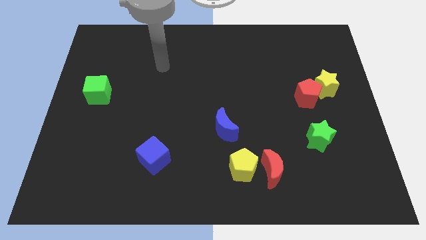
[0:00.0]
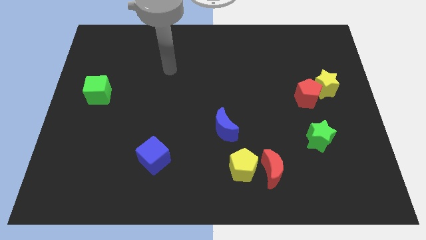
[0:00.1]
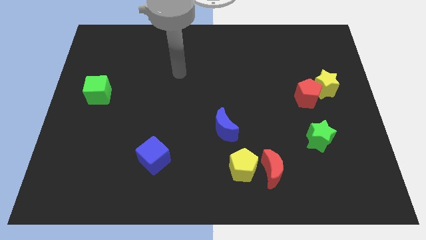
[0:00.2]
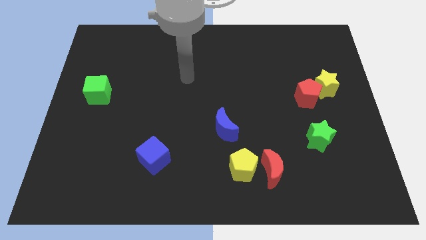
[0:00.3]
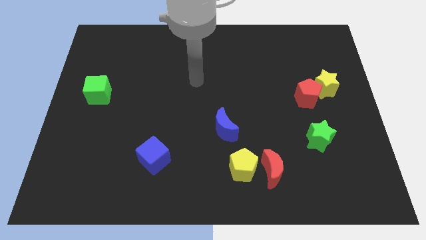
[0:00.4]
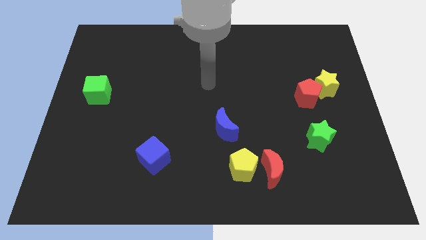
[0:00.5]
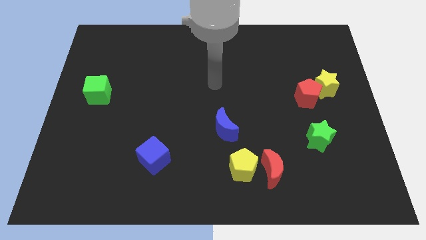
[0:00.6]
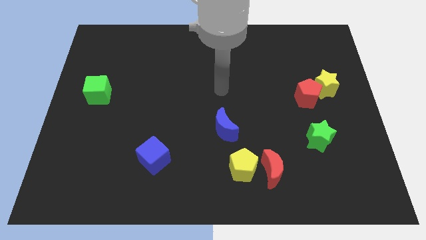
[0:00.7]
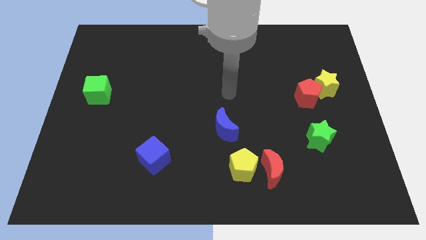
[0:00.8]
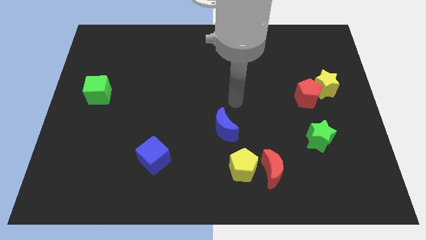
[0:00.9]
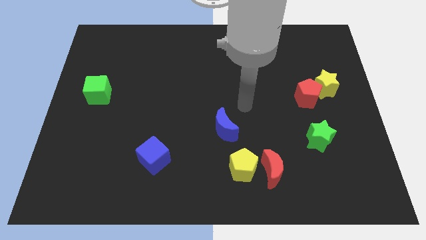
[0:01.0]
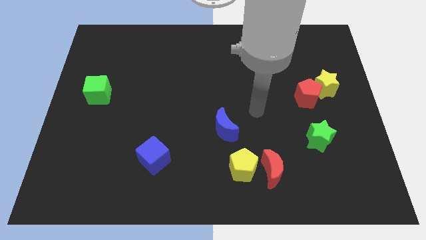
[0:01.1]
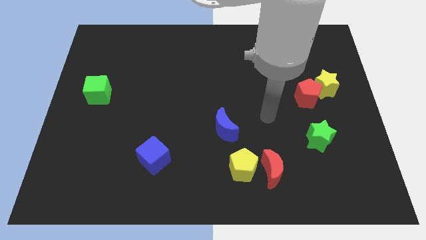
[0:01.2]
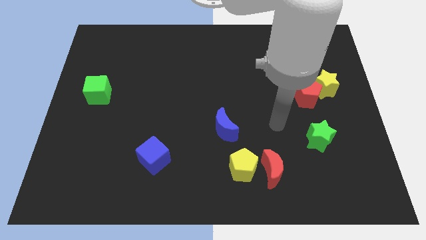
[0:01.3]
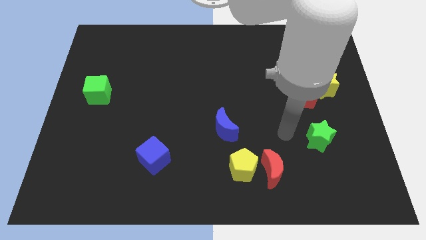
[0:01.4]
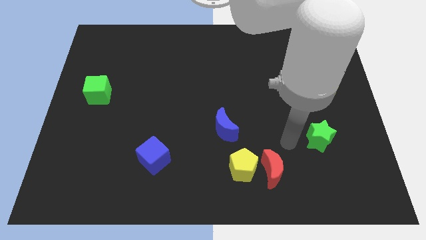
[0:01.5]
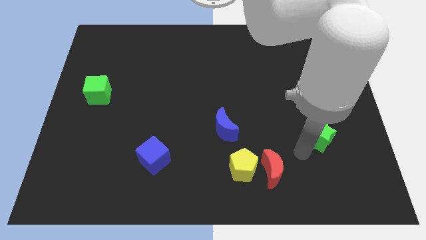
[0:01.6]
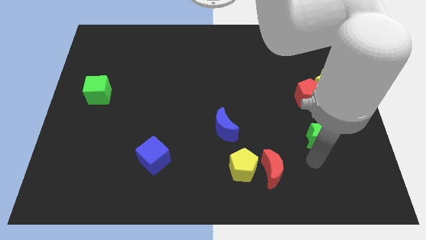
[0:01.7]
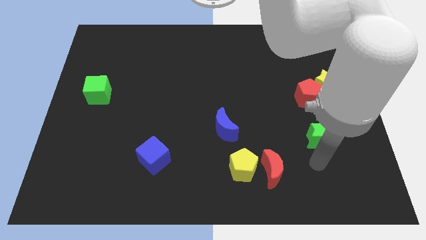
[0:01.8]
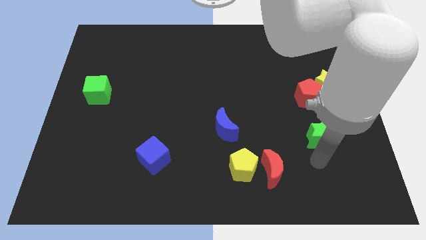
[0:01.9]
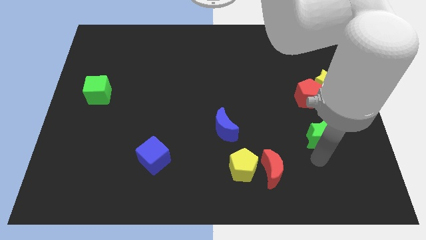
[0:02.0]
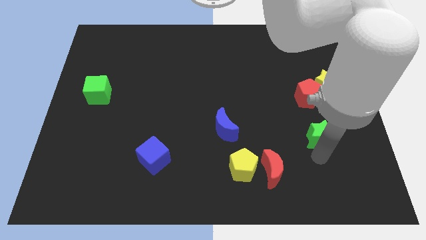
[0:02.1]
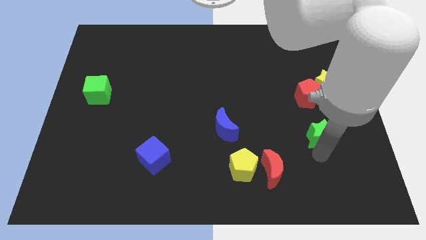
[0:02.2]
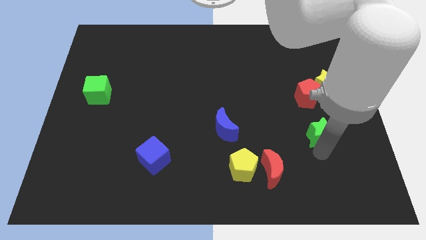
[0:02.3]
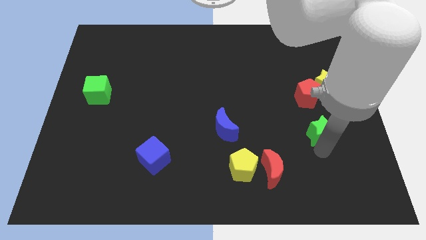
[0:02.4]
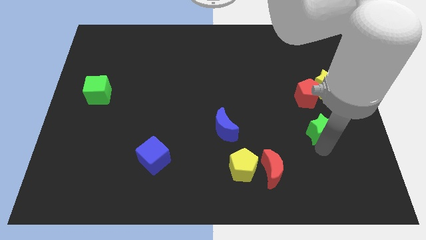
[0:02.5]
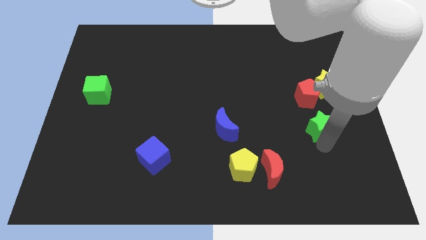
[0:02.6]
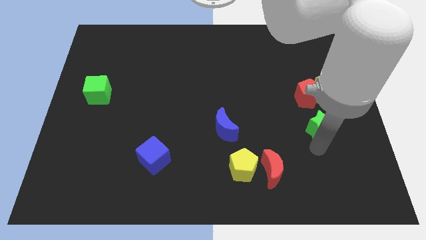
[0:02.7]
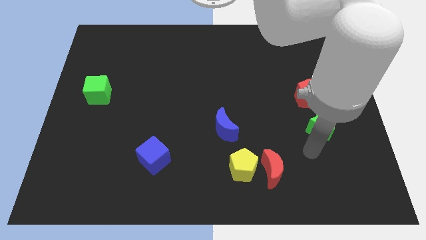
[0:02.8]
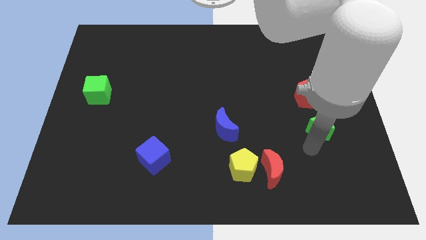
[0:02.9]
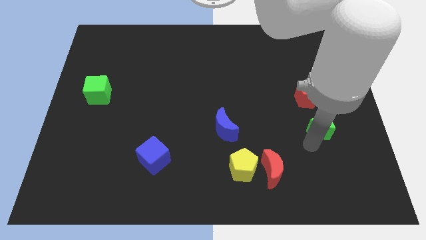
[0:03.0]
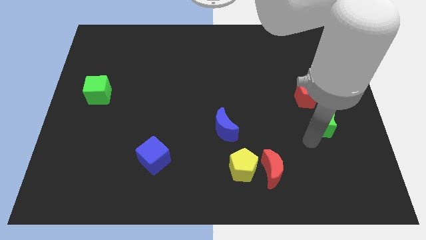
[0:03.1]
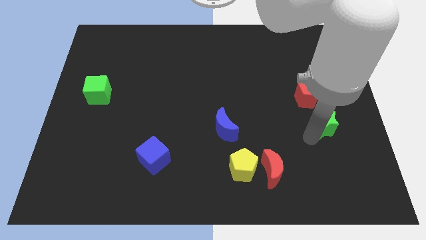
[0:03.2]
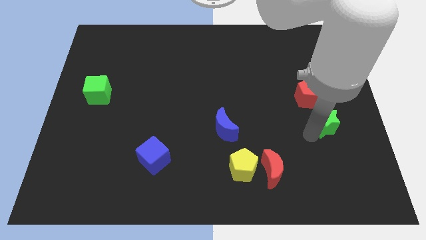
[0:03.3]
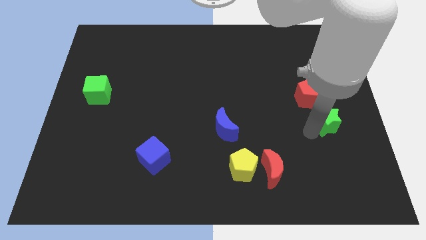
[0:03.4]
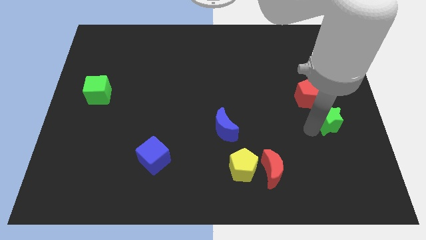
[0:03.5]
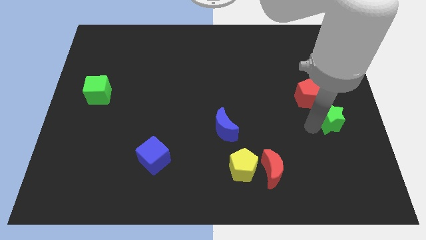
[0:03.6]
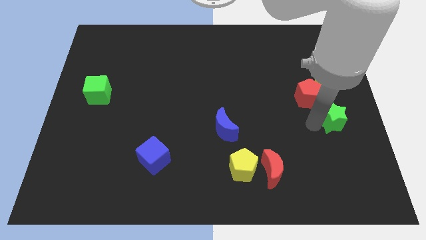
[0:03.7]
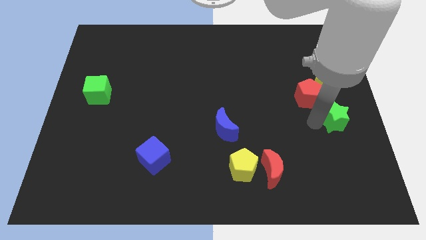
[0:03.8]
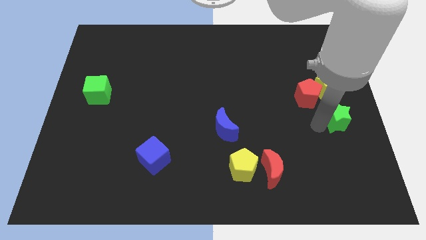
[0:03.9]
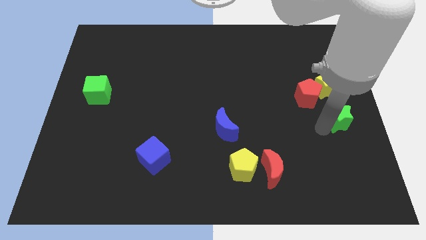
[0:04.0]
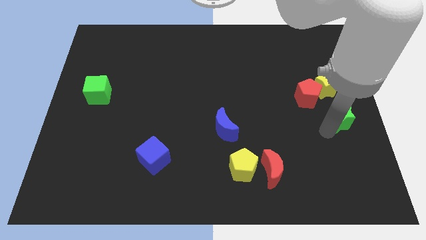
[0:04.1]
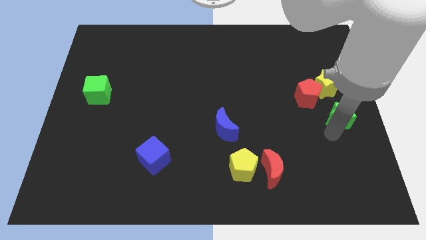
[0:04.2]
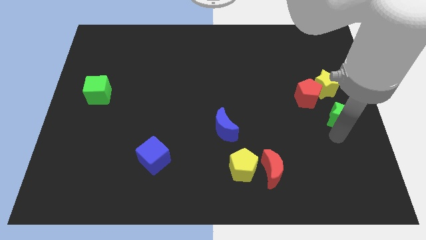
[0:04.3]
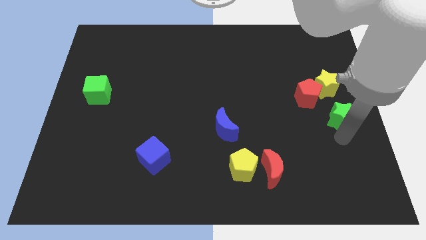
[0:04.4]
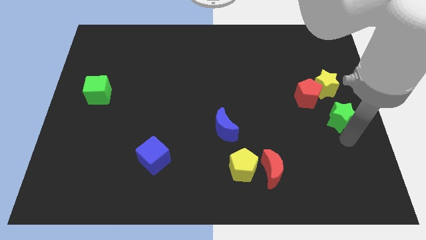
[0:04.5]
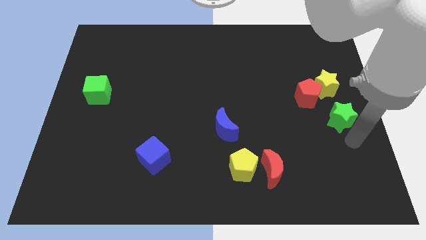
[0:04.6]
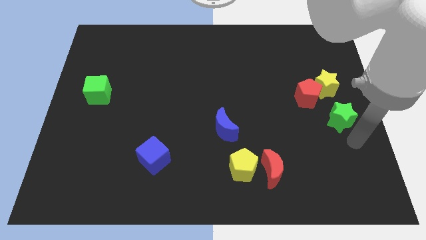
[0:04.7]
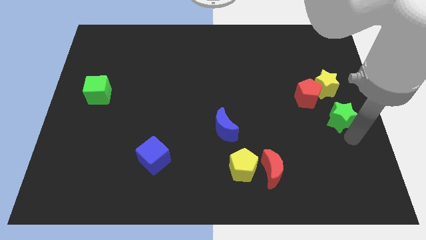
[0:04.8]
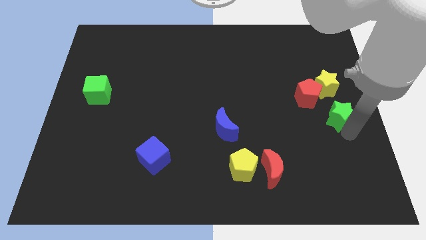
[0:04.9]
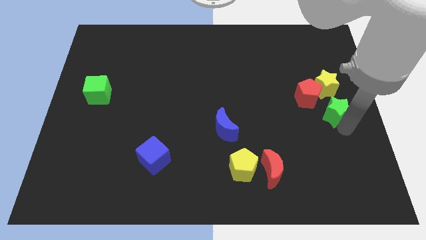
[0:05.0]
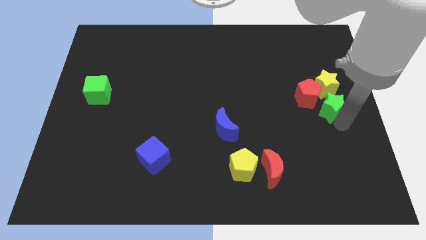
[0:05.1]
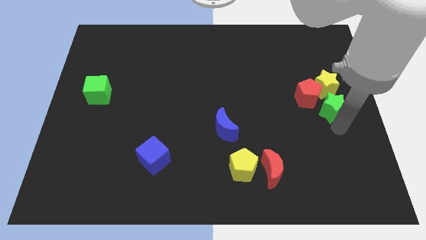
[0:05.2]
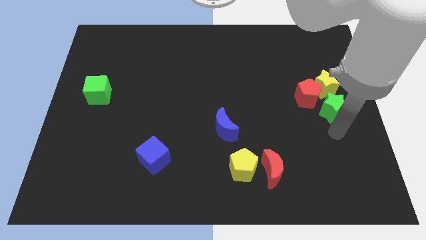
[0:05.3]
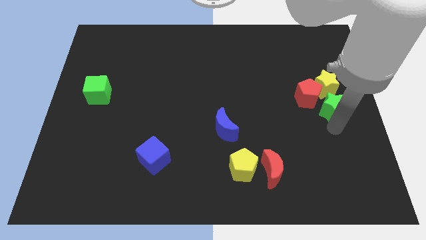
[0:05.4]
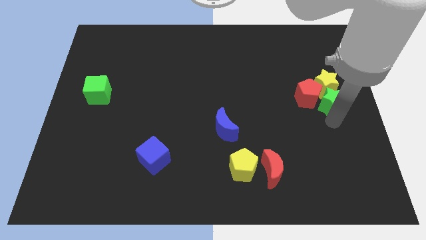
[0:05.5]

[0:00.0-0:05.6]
slide the green star towards the yellow star

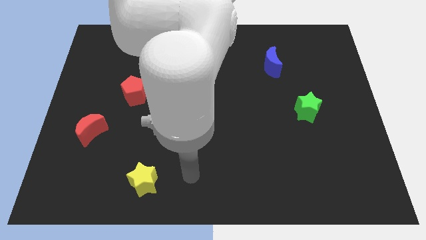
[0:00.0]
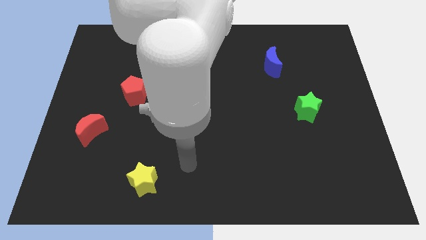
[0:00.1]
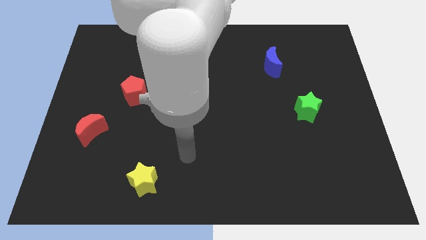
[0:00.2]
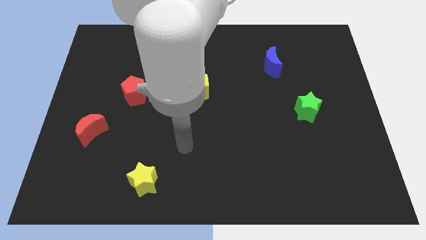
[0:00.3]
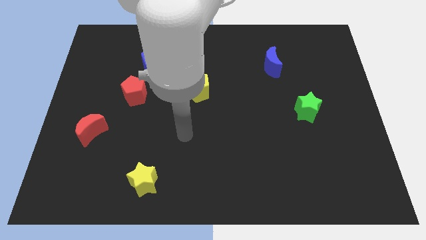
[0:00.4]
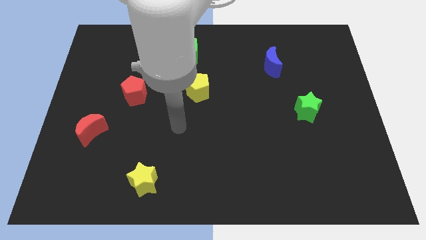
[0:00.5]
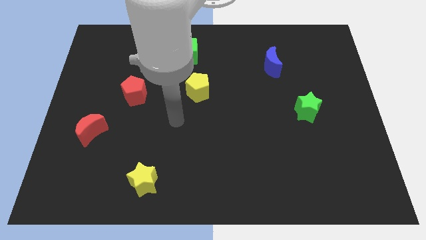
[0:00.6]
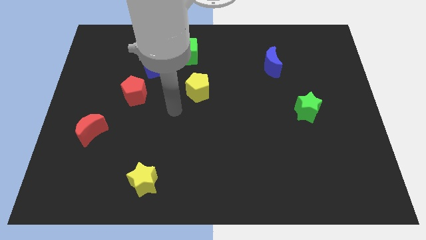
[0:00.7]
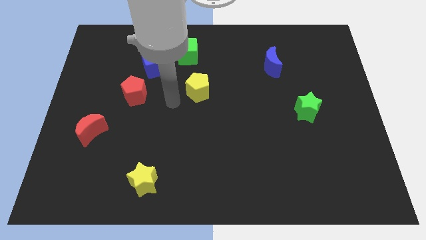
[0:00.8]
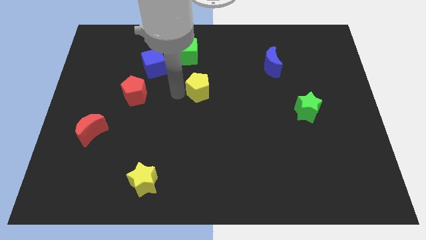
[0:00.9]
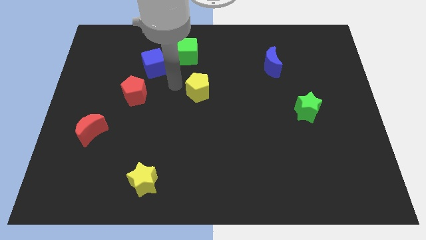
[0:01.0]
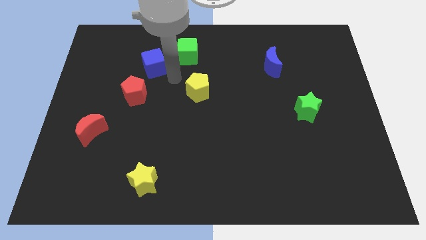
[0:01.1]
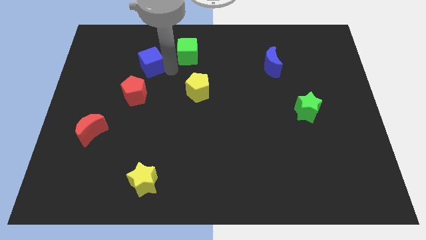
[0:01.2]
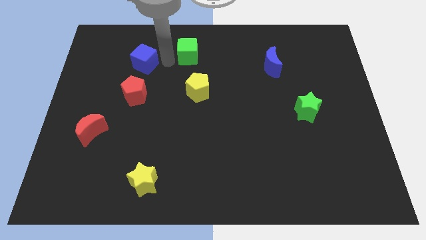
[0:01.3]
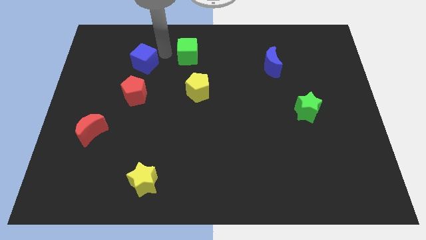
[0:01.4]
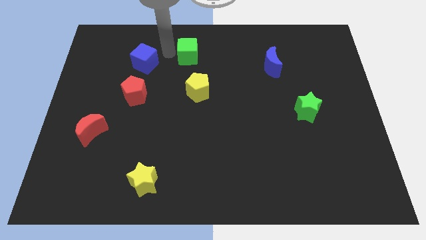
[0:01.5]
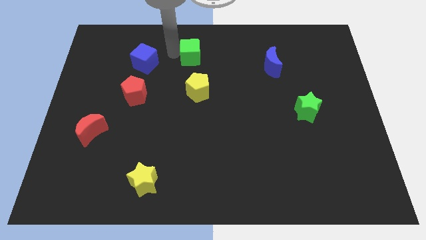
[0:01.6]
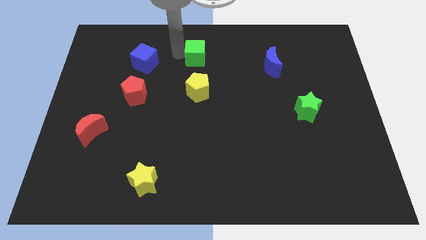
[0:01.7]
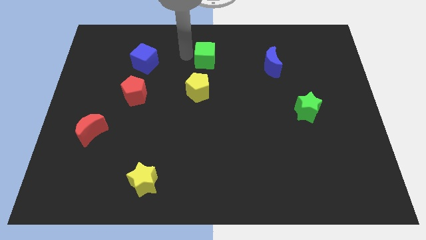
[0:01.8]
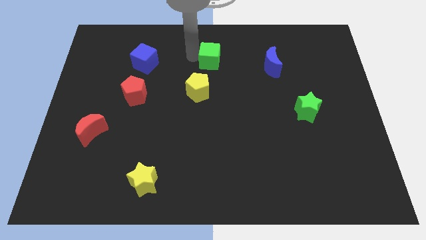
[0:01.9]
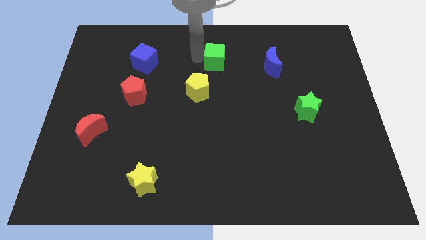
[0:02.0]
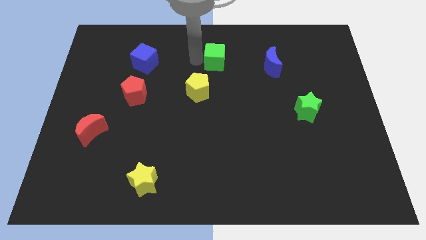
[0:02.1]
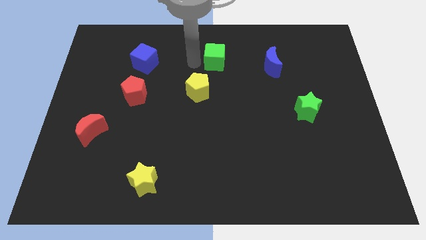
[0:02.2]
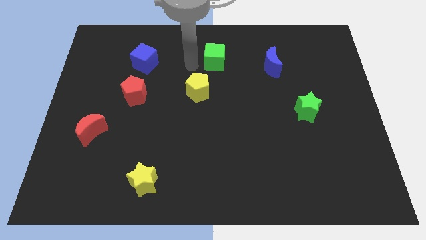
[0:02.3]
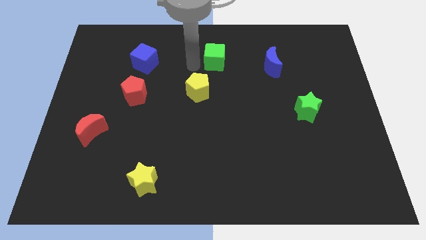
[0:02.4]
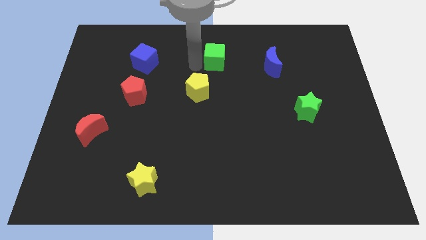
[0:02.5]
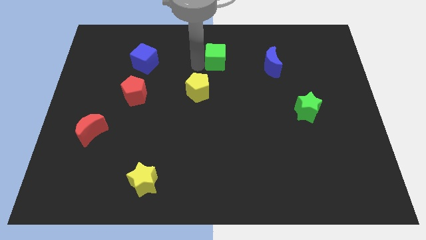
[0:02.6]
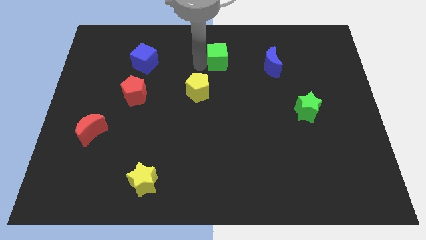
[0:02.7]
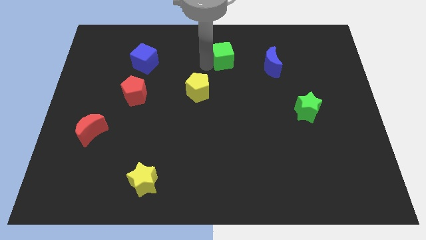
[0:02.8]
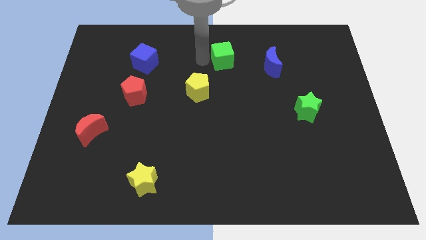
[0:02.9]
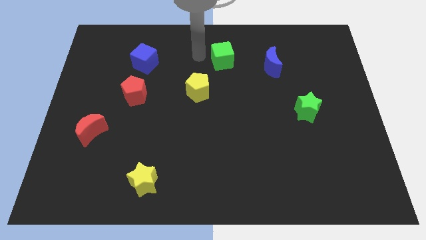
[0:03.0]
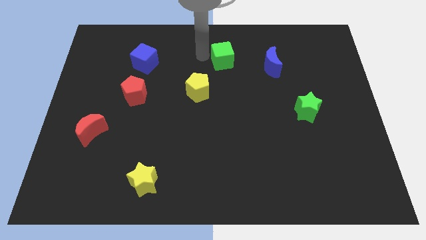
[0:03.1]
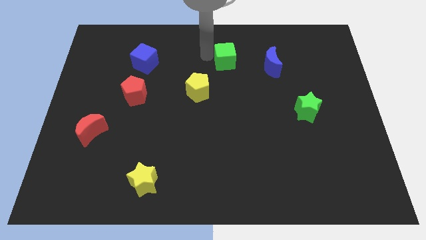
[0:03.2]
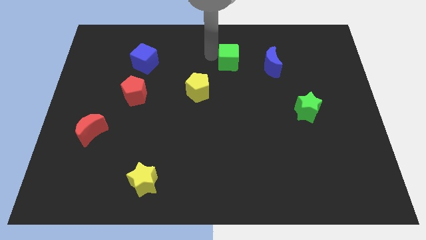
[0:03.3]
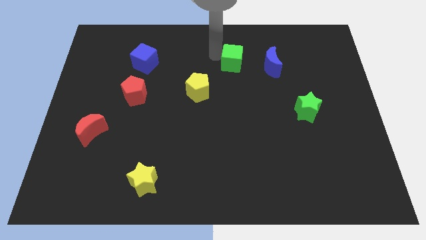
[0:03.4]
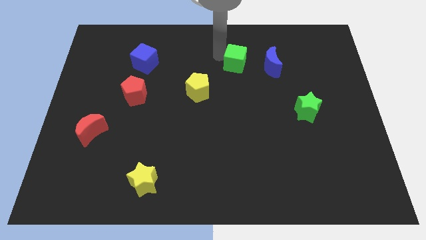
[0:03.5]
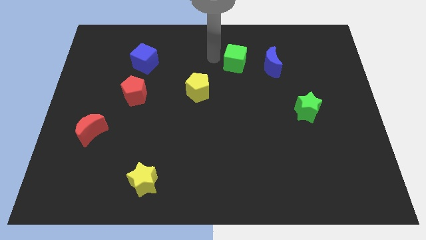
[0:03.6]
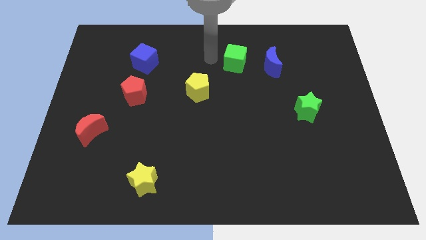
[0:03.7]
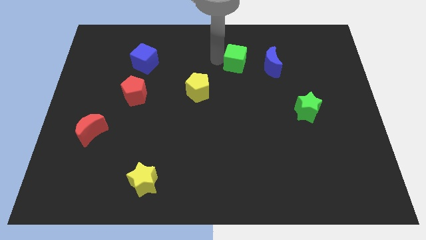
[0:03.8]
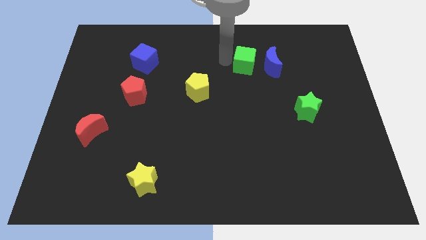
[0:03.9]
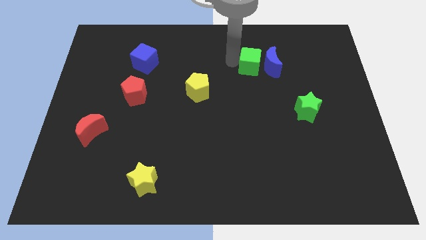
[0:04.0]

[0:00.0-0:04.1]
slide the green cube to the blue moon
